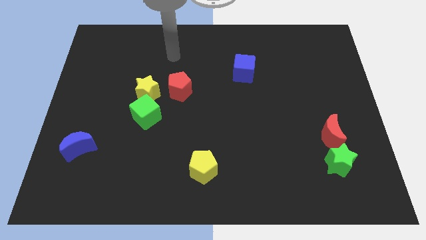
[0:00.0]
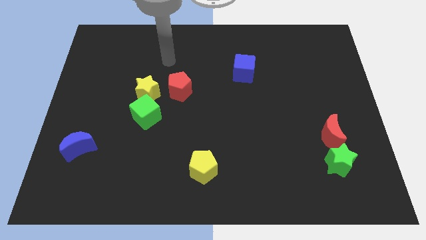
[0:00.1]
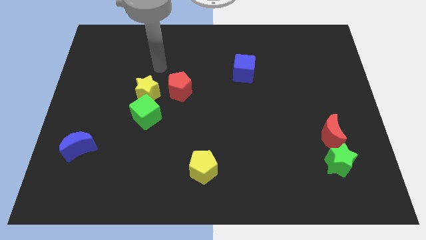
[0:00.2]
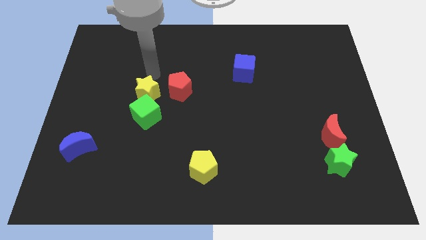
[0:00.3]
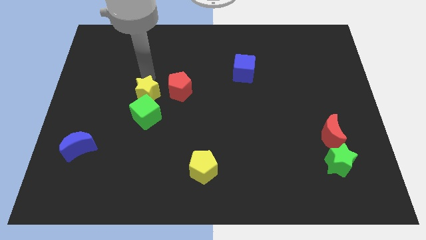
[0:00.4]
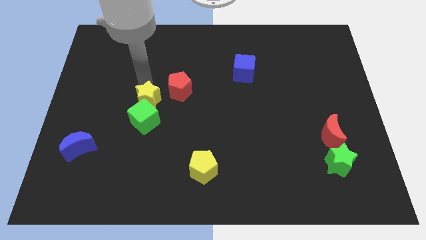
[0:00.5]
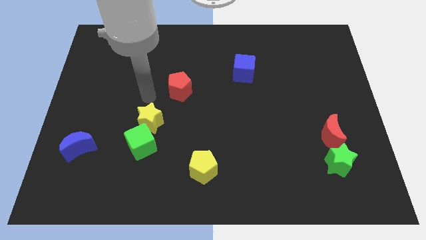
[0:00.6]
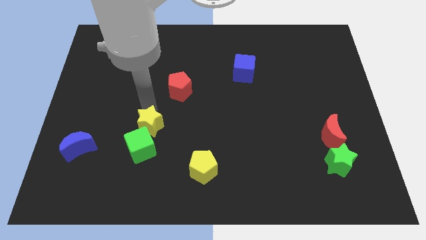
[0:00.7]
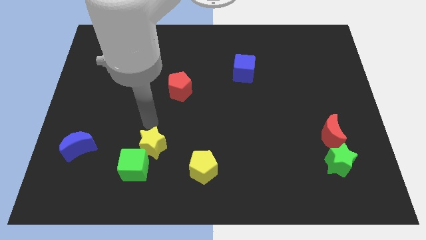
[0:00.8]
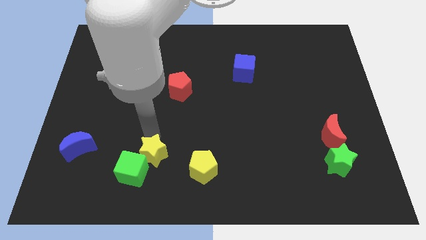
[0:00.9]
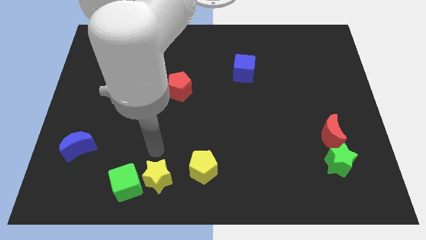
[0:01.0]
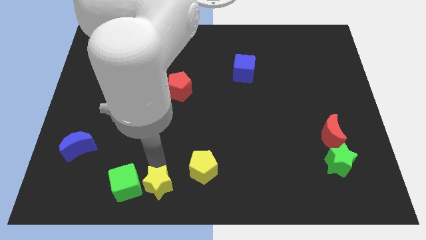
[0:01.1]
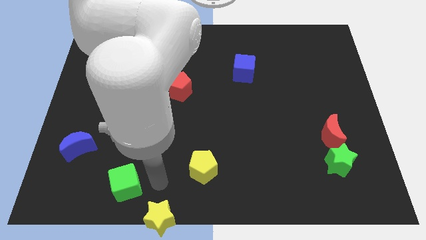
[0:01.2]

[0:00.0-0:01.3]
pull the green cube apart from the yellow star

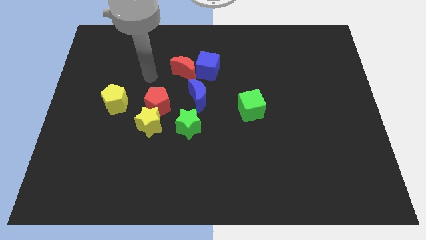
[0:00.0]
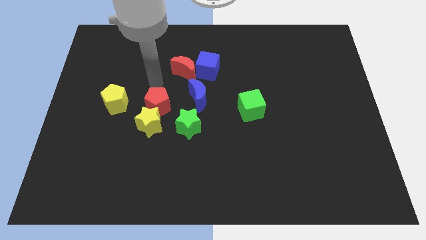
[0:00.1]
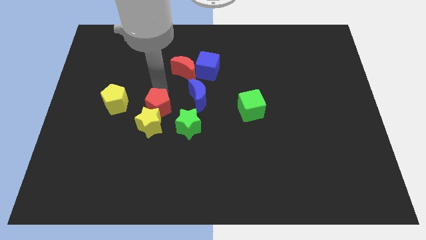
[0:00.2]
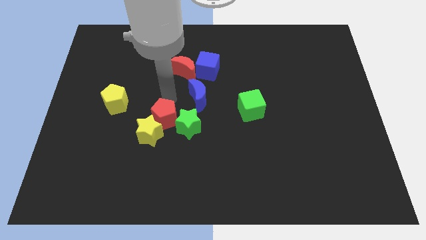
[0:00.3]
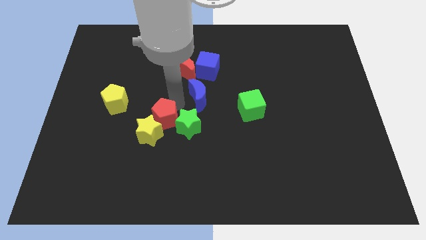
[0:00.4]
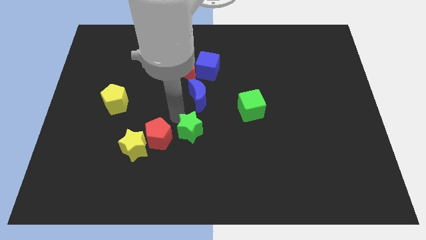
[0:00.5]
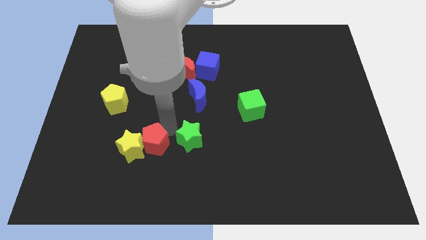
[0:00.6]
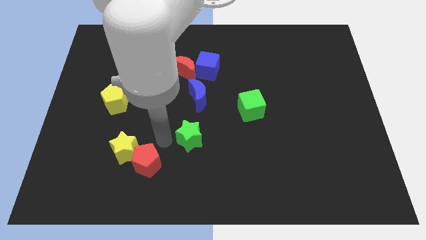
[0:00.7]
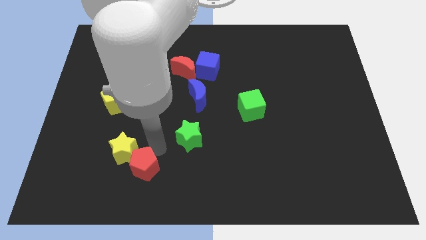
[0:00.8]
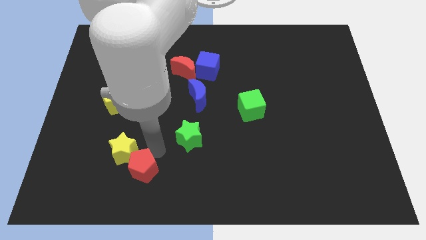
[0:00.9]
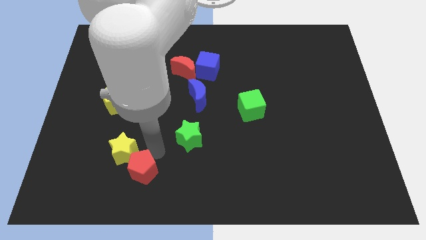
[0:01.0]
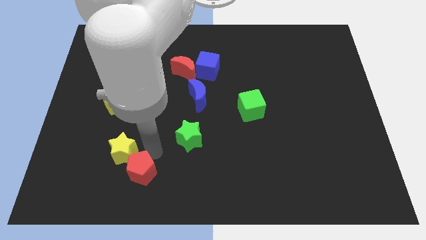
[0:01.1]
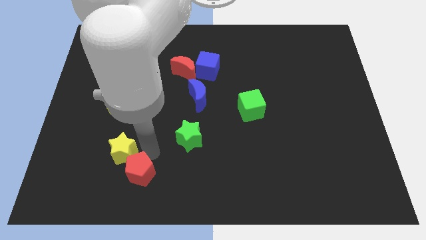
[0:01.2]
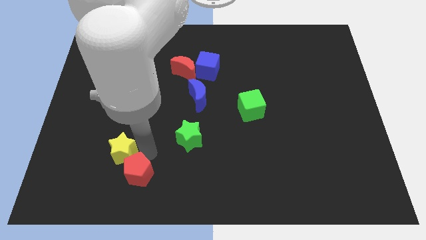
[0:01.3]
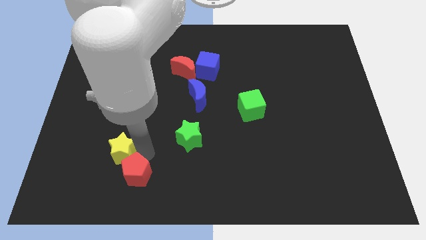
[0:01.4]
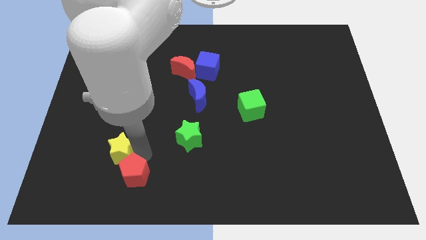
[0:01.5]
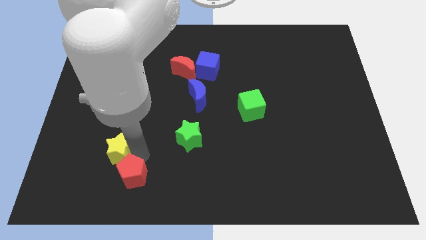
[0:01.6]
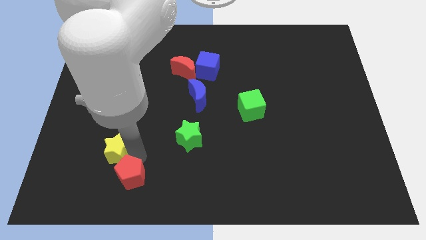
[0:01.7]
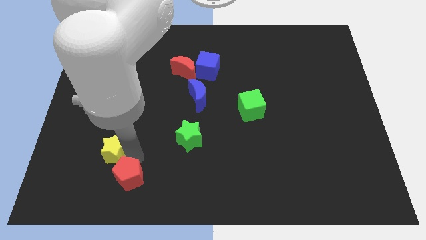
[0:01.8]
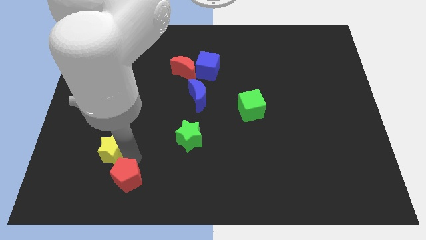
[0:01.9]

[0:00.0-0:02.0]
separate the yellow star from the red pentagon and green star

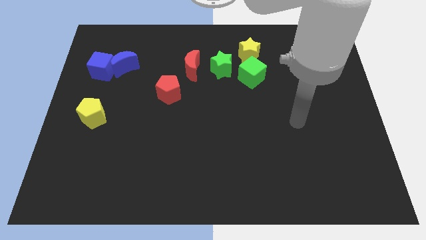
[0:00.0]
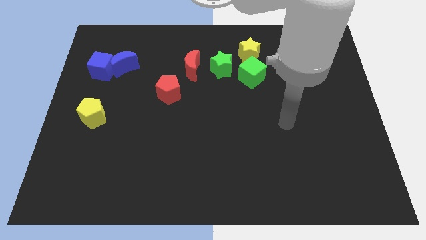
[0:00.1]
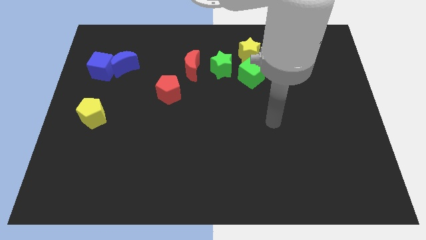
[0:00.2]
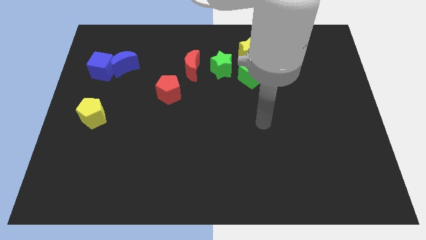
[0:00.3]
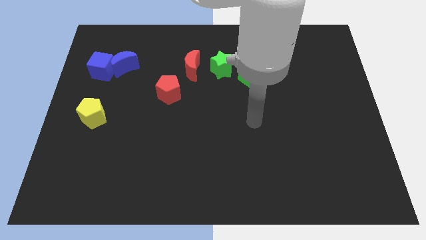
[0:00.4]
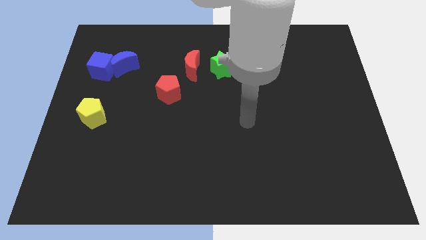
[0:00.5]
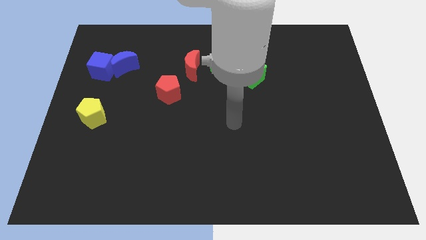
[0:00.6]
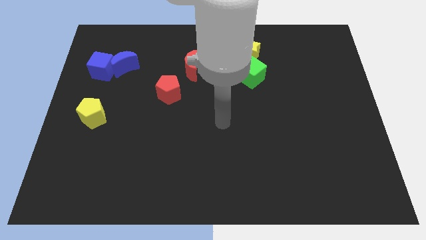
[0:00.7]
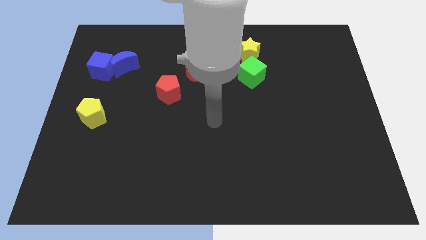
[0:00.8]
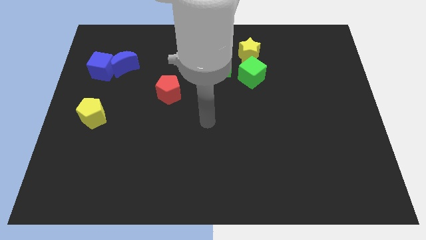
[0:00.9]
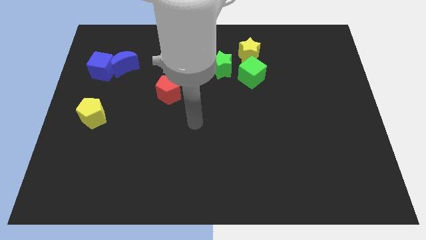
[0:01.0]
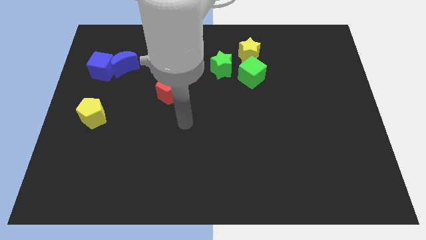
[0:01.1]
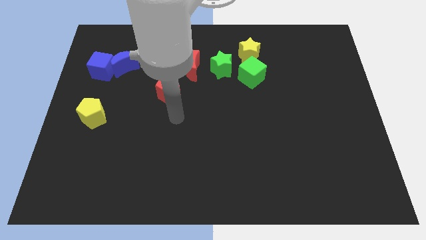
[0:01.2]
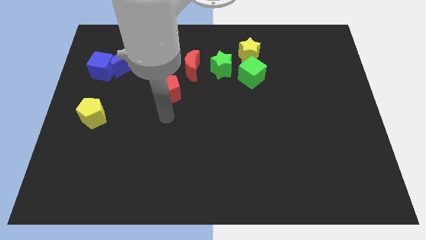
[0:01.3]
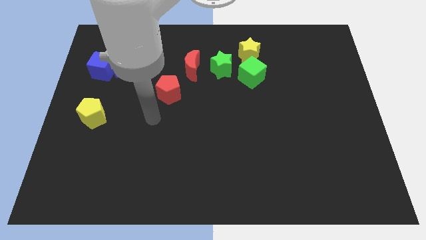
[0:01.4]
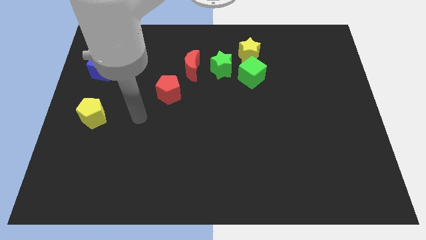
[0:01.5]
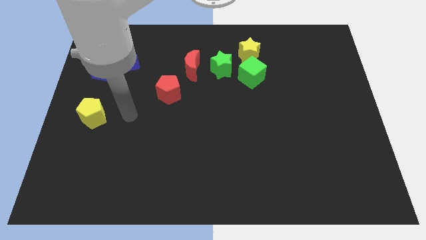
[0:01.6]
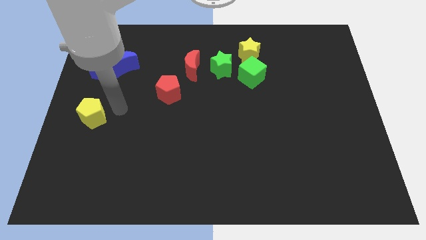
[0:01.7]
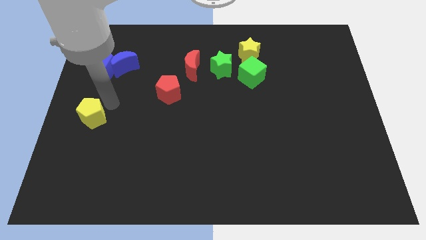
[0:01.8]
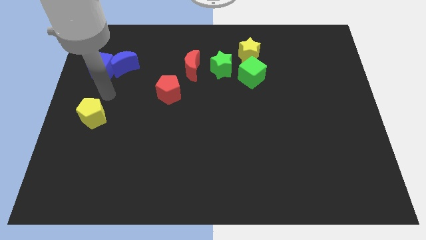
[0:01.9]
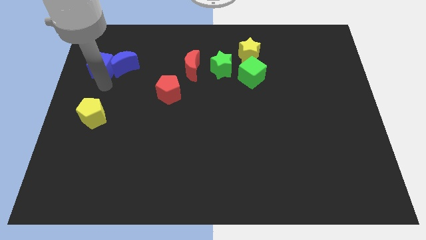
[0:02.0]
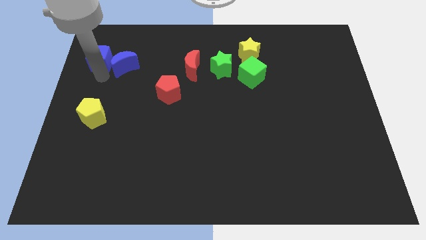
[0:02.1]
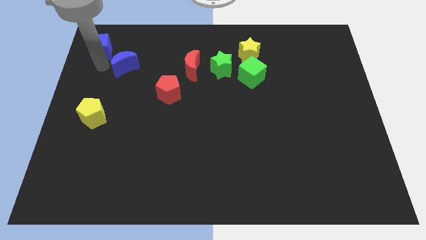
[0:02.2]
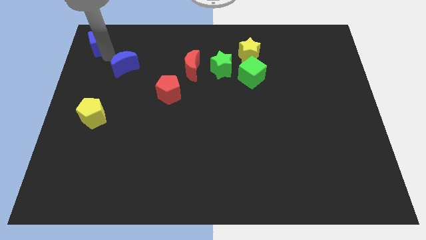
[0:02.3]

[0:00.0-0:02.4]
separate the blue moon from the blue cube

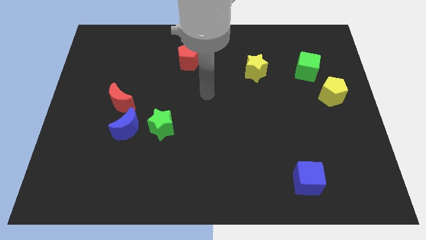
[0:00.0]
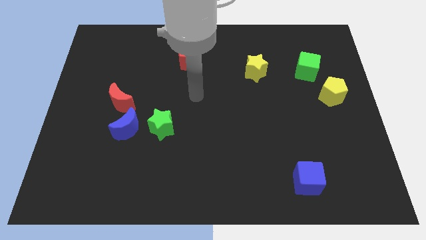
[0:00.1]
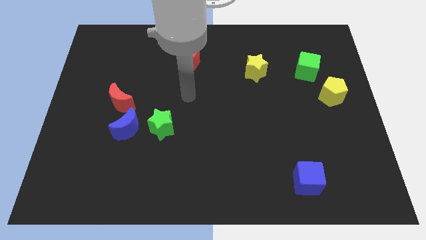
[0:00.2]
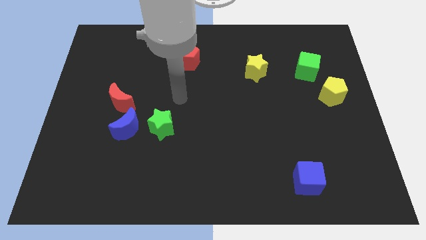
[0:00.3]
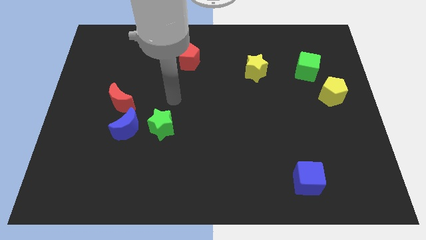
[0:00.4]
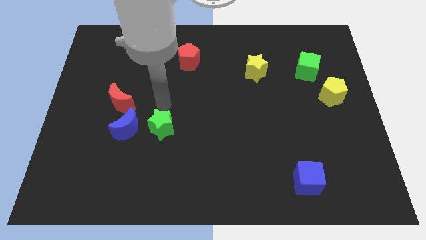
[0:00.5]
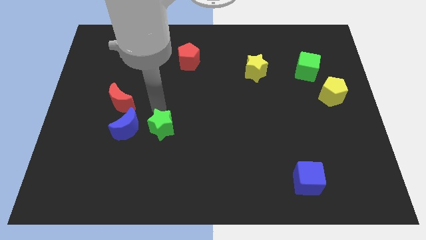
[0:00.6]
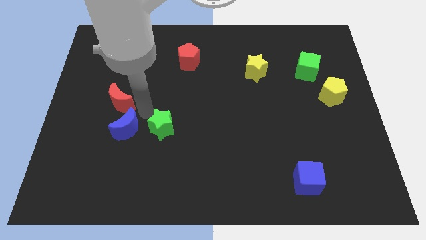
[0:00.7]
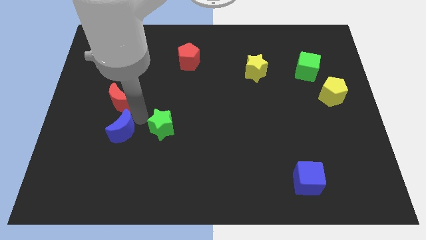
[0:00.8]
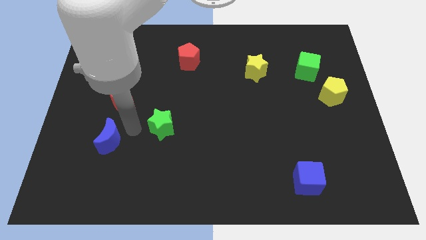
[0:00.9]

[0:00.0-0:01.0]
separate the green star from the blue moon

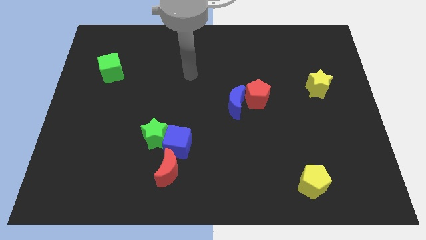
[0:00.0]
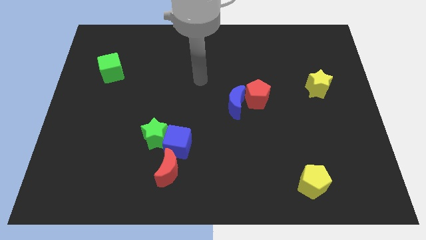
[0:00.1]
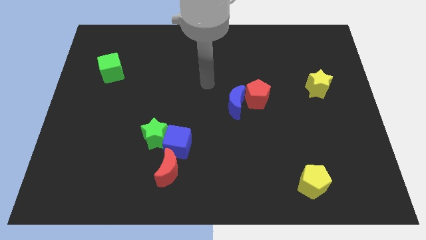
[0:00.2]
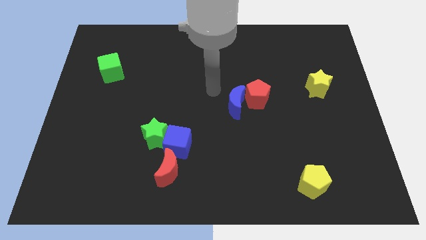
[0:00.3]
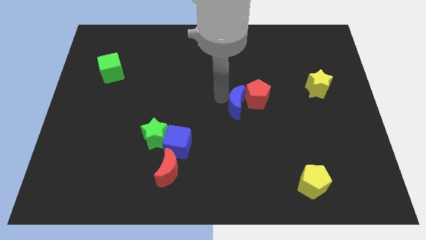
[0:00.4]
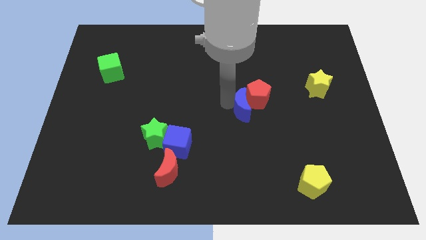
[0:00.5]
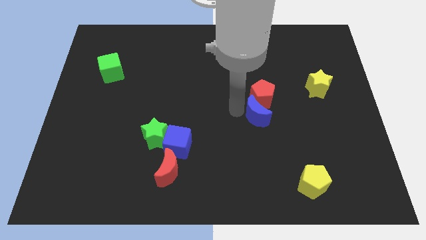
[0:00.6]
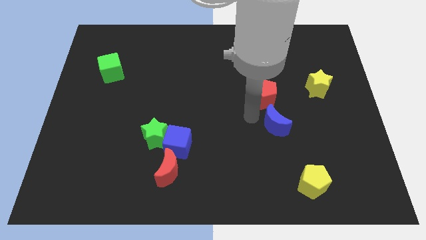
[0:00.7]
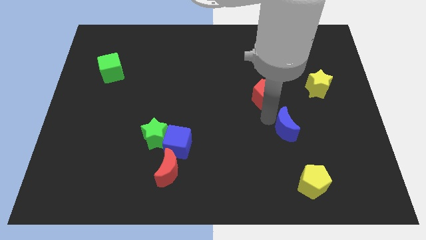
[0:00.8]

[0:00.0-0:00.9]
separate the red pentagon from the blue moon

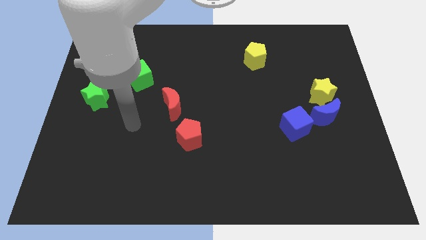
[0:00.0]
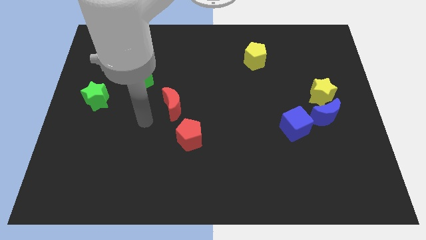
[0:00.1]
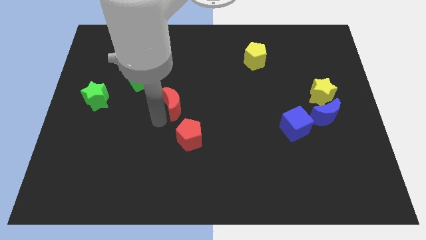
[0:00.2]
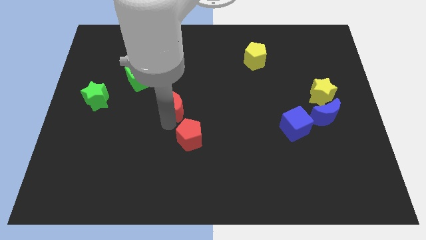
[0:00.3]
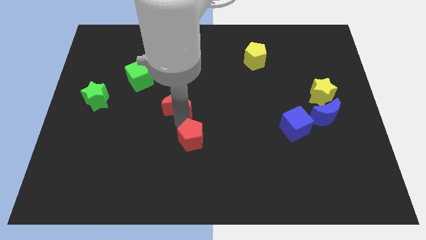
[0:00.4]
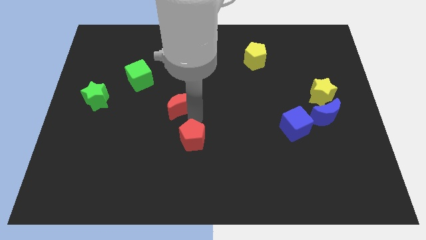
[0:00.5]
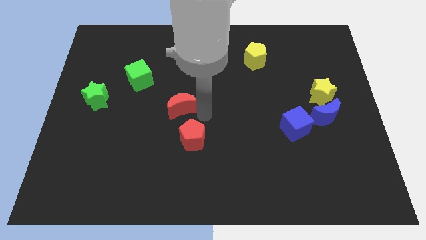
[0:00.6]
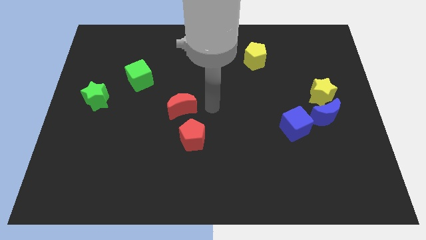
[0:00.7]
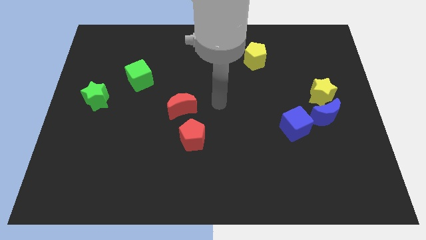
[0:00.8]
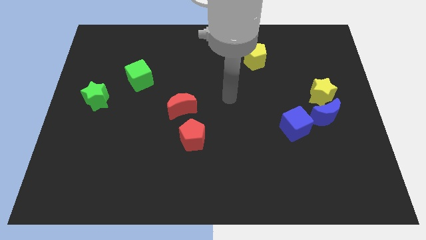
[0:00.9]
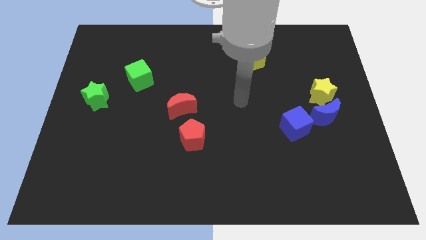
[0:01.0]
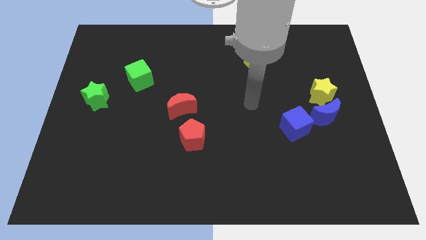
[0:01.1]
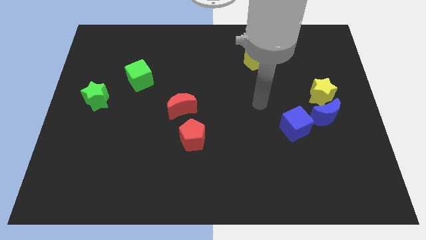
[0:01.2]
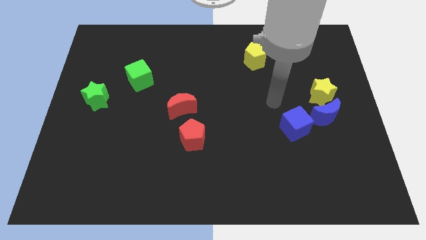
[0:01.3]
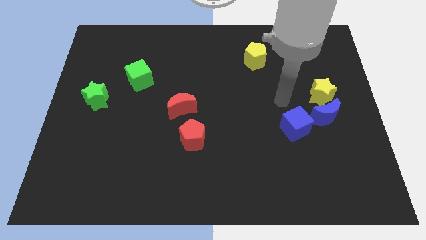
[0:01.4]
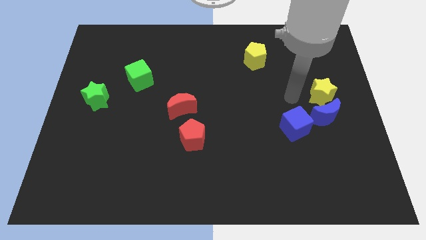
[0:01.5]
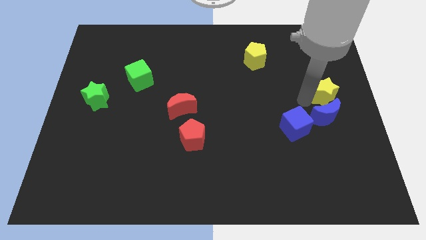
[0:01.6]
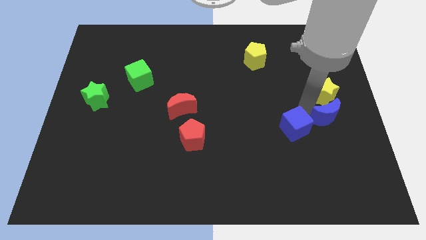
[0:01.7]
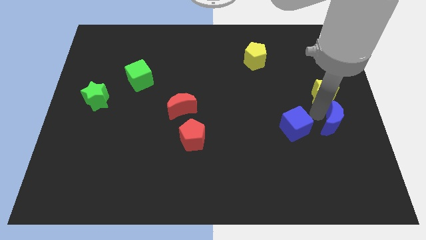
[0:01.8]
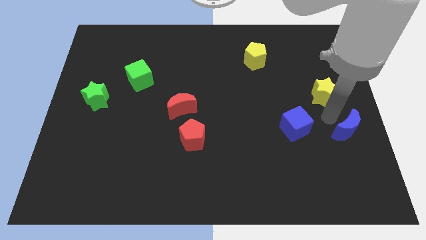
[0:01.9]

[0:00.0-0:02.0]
separate the yellow star from the blue moon
